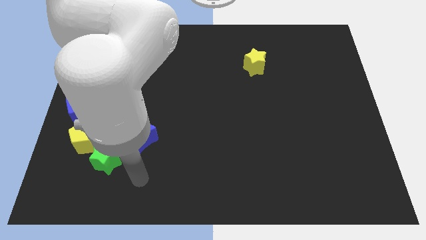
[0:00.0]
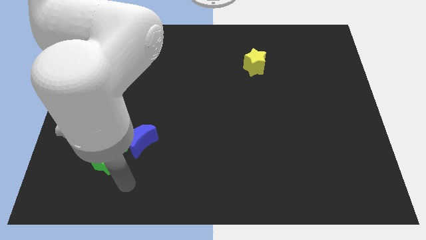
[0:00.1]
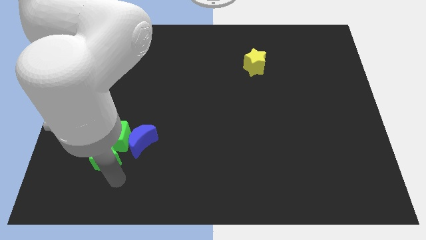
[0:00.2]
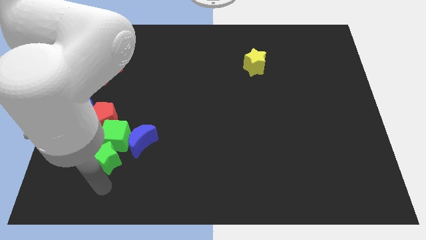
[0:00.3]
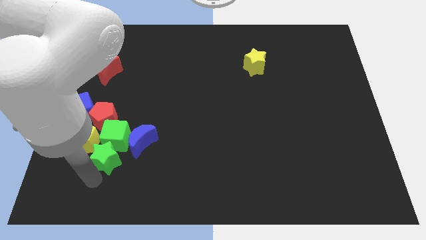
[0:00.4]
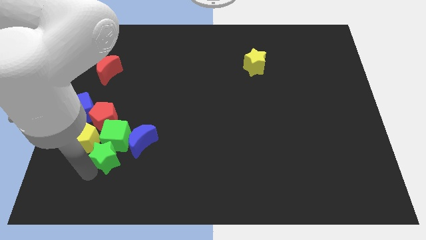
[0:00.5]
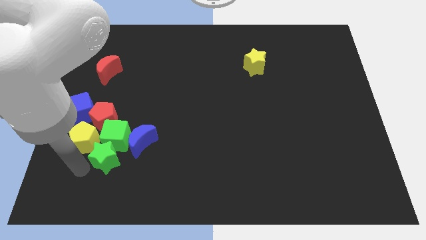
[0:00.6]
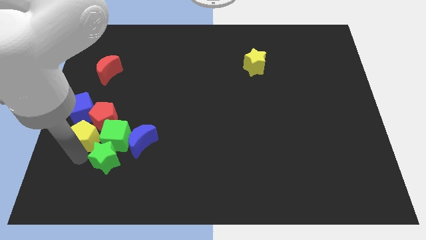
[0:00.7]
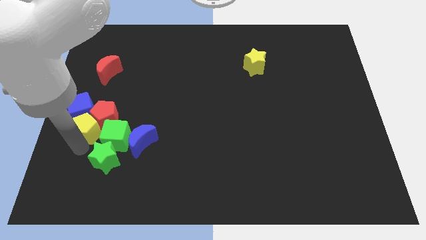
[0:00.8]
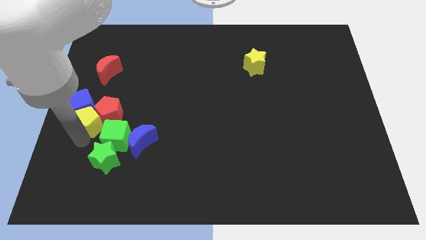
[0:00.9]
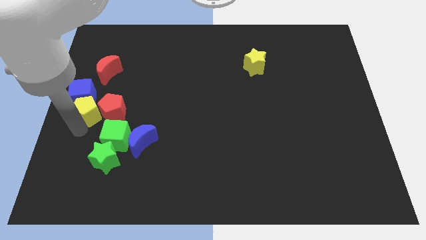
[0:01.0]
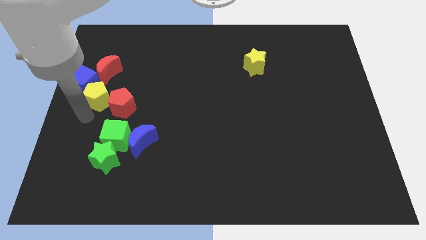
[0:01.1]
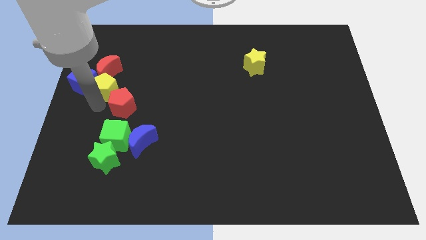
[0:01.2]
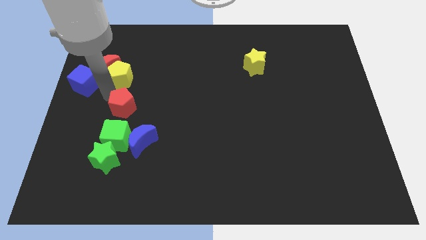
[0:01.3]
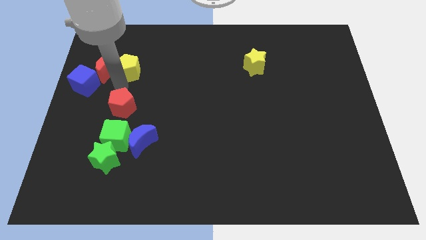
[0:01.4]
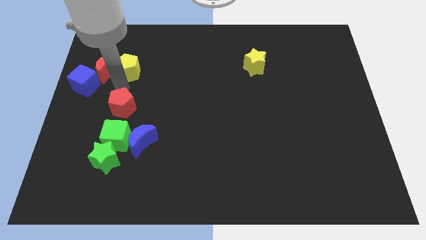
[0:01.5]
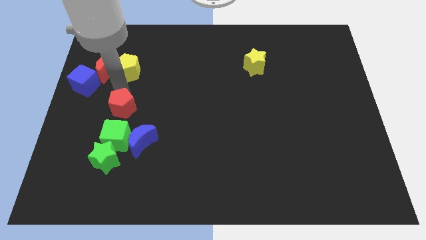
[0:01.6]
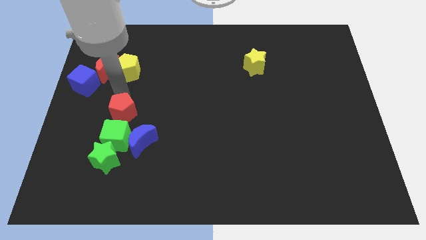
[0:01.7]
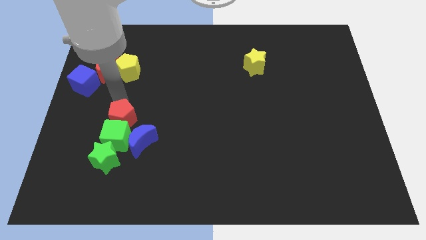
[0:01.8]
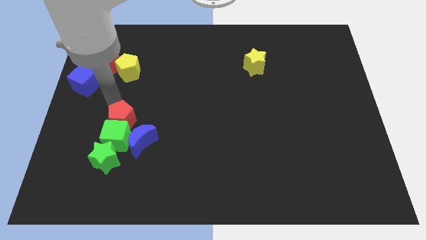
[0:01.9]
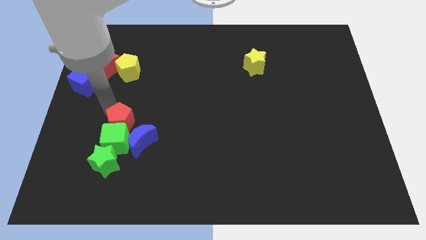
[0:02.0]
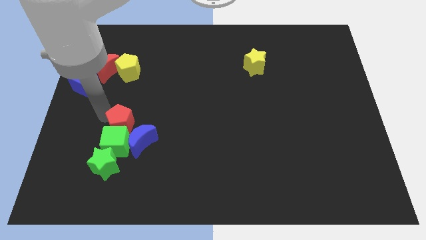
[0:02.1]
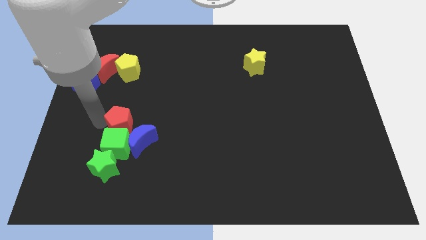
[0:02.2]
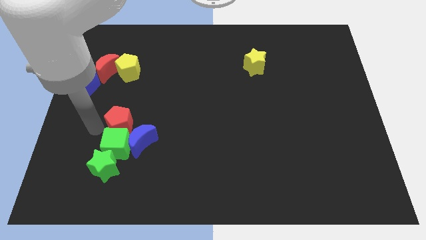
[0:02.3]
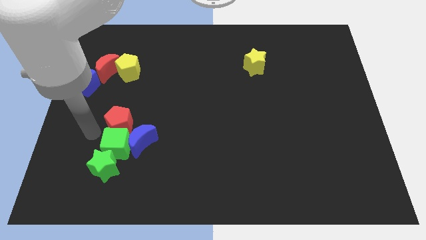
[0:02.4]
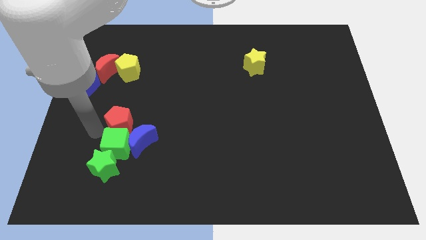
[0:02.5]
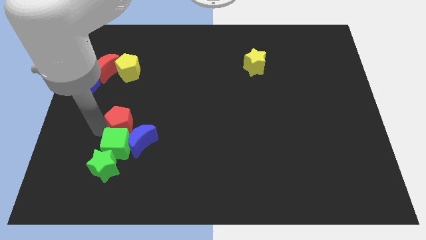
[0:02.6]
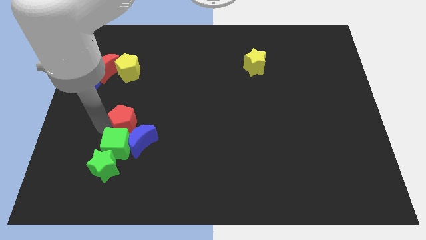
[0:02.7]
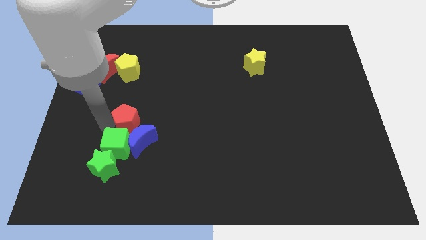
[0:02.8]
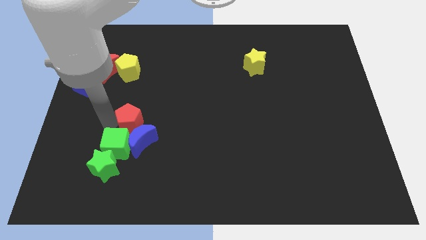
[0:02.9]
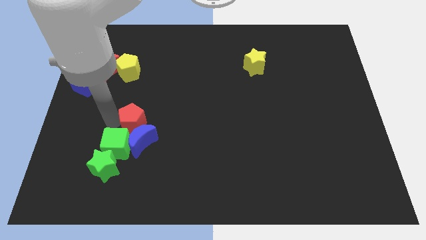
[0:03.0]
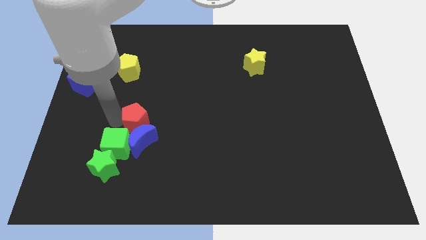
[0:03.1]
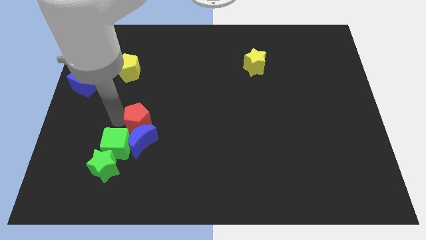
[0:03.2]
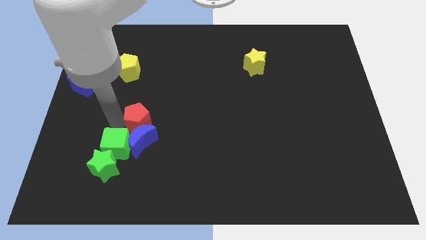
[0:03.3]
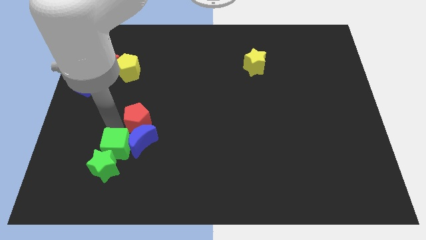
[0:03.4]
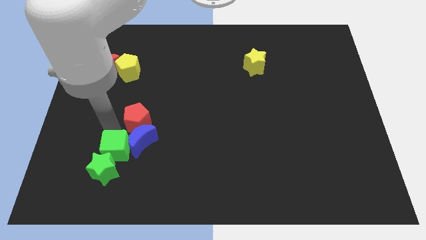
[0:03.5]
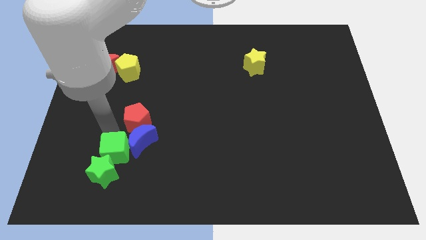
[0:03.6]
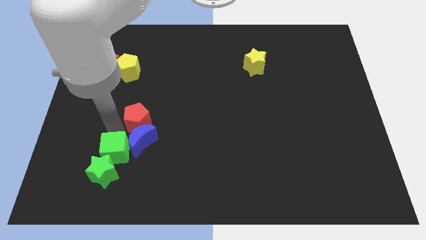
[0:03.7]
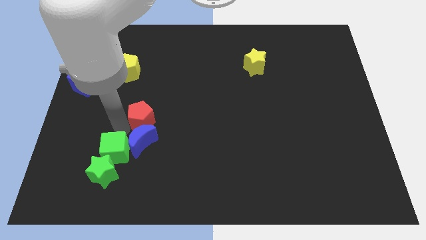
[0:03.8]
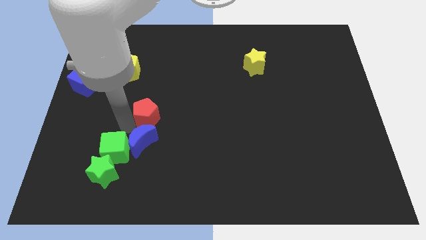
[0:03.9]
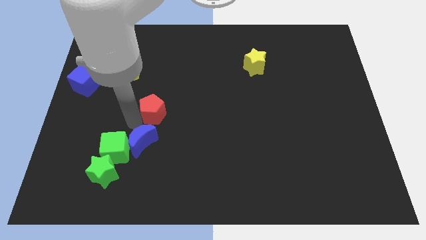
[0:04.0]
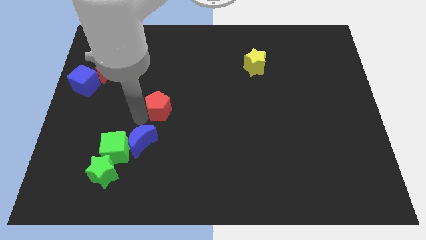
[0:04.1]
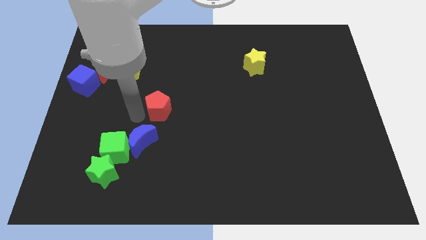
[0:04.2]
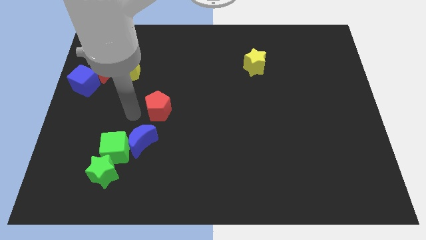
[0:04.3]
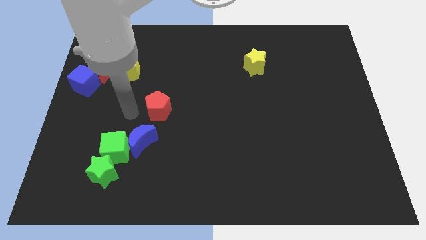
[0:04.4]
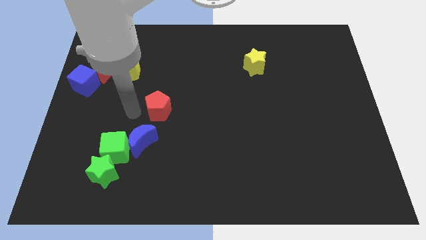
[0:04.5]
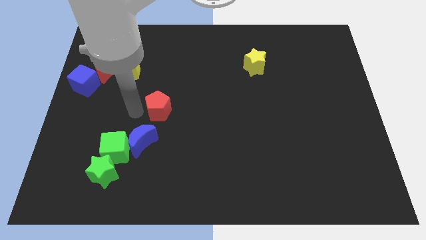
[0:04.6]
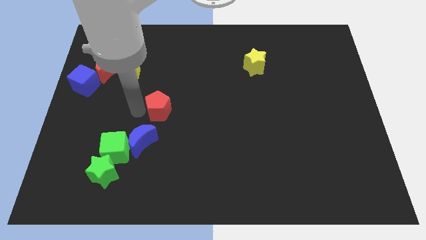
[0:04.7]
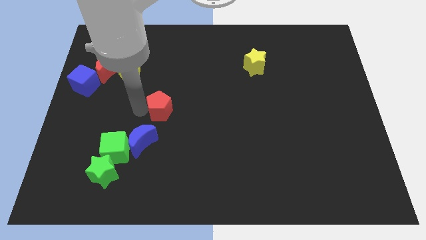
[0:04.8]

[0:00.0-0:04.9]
push the red pentagon to the middle of the board

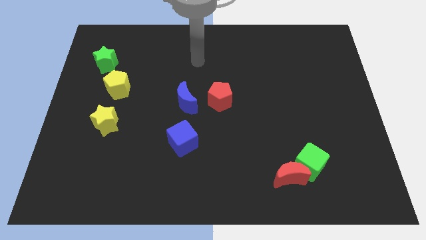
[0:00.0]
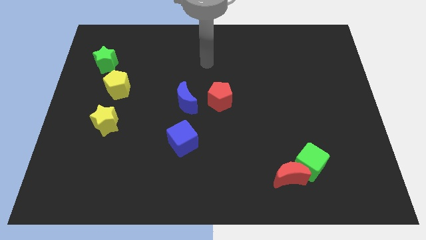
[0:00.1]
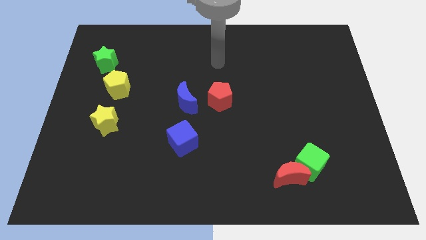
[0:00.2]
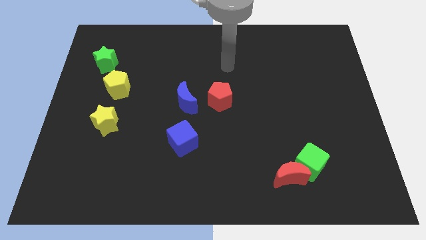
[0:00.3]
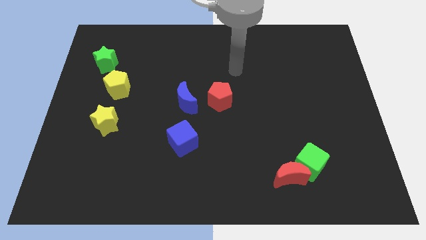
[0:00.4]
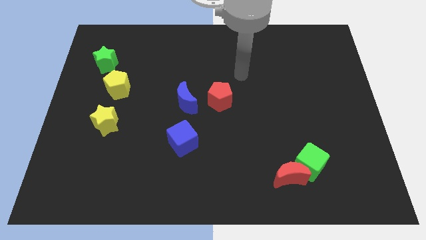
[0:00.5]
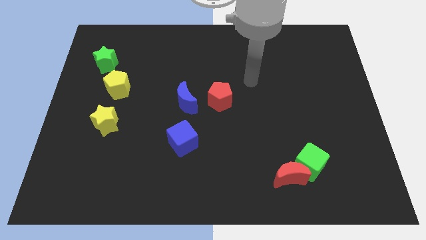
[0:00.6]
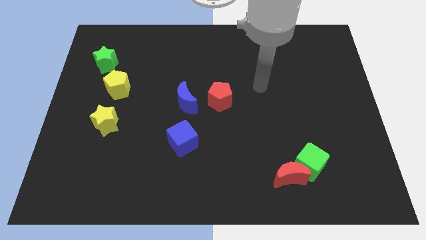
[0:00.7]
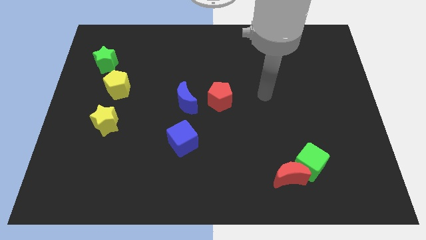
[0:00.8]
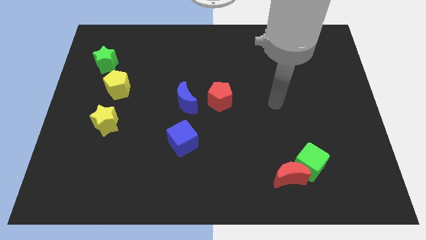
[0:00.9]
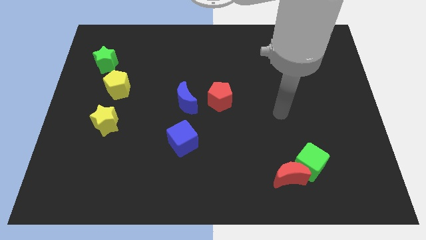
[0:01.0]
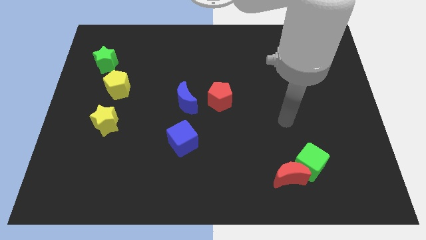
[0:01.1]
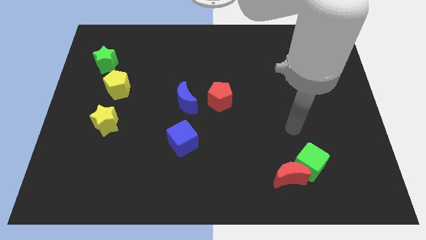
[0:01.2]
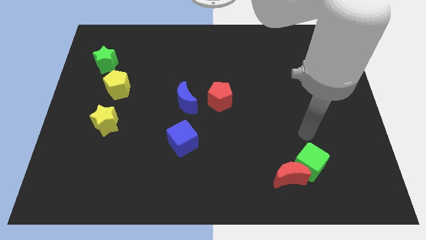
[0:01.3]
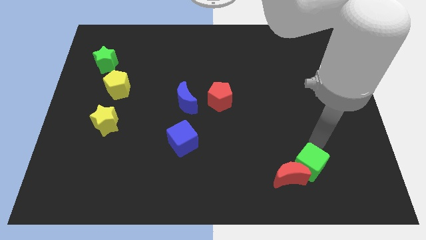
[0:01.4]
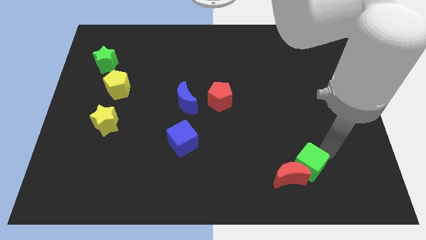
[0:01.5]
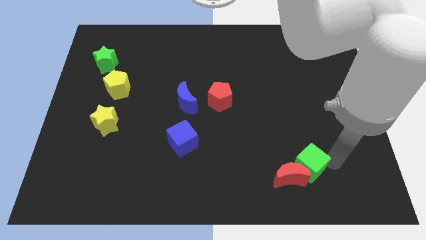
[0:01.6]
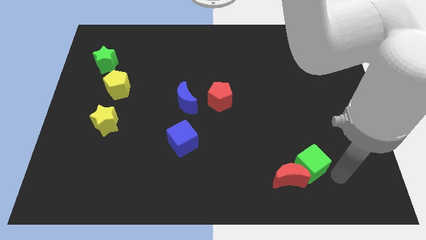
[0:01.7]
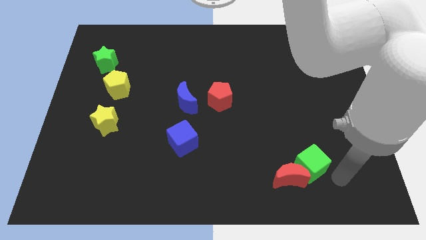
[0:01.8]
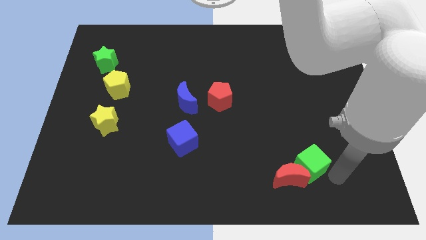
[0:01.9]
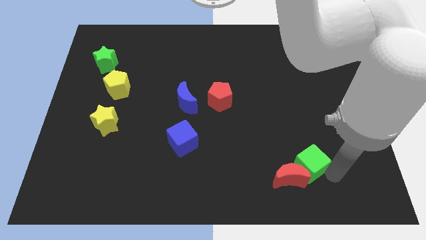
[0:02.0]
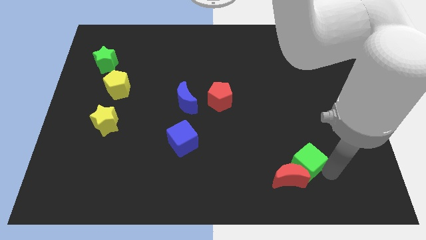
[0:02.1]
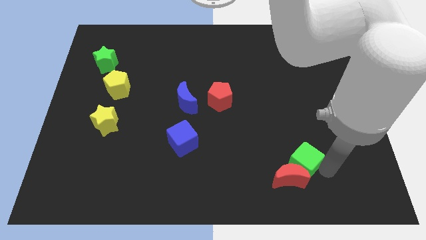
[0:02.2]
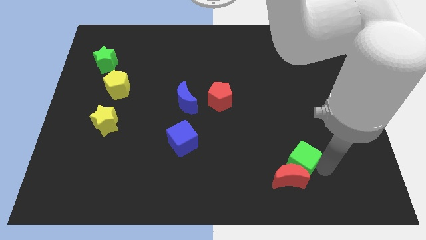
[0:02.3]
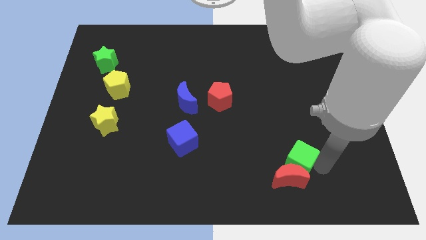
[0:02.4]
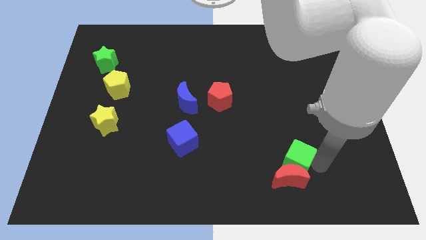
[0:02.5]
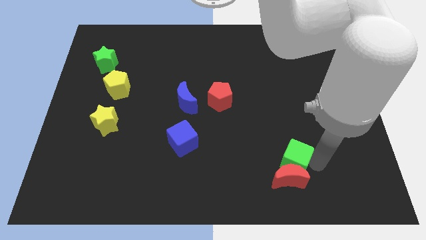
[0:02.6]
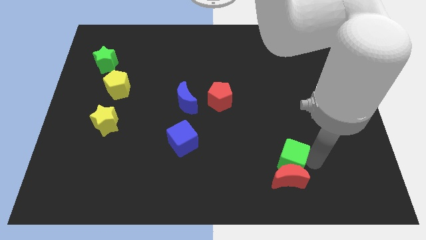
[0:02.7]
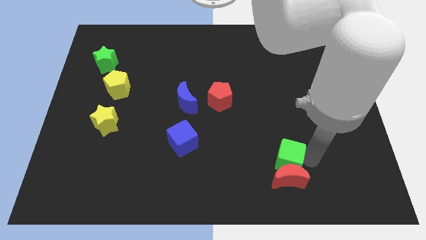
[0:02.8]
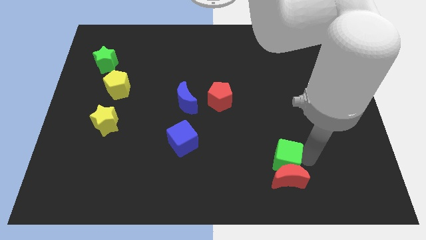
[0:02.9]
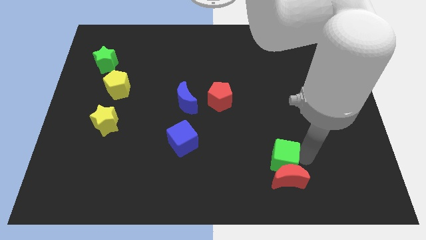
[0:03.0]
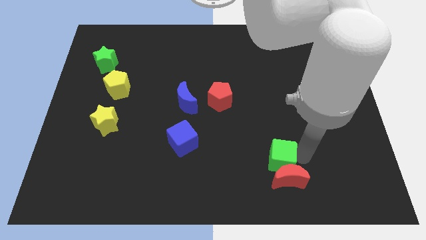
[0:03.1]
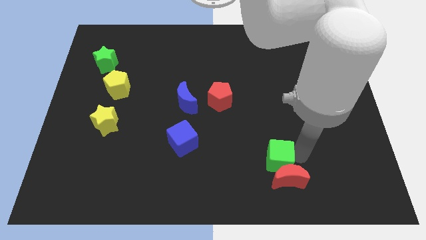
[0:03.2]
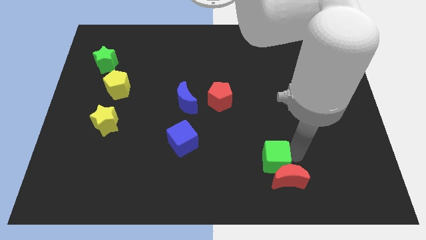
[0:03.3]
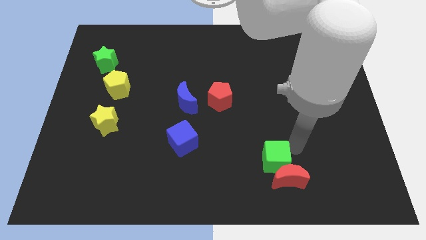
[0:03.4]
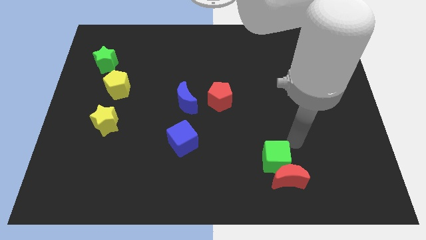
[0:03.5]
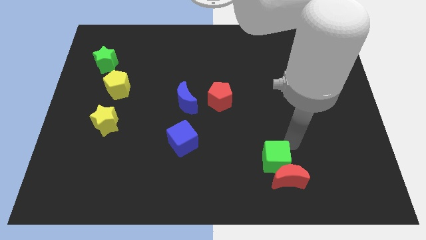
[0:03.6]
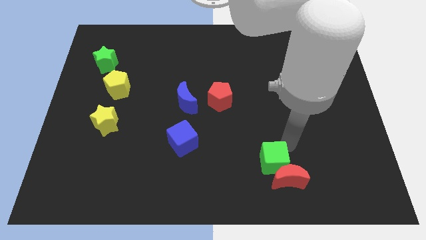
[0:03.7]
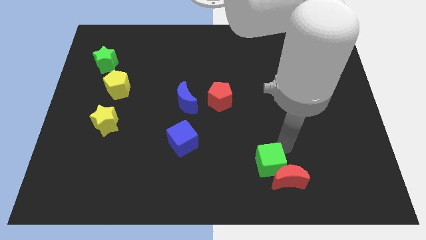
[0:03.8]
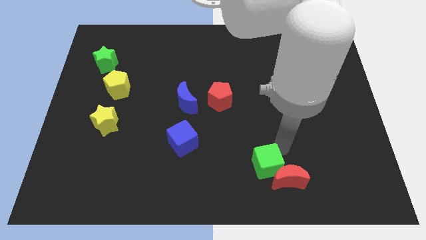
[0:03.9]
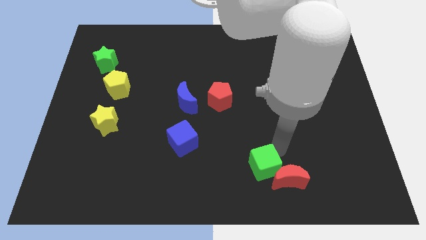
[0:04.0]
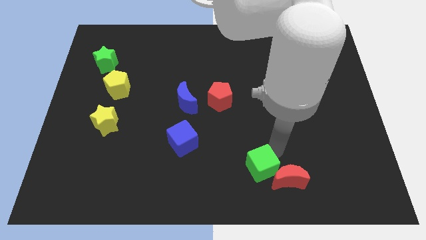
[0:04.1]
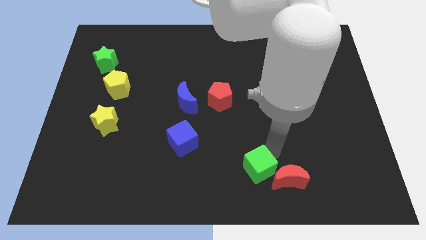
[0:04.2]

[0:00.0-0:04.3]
move the green cube to the bottom side
